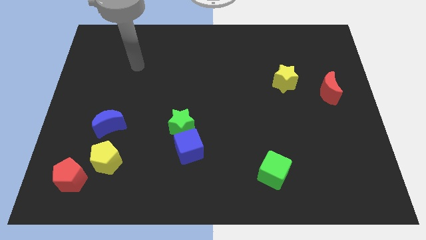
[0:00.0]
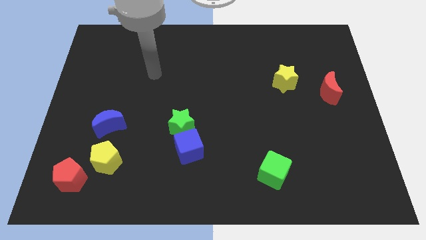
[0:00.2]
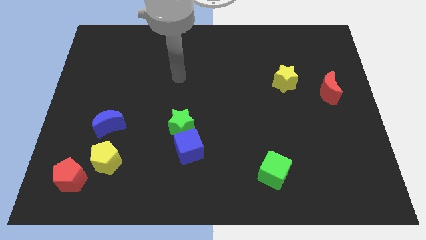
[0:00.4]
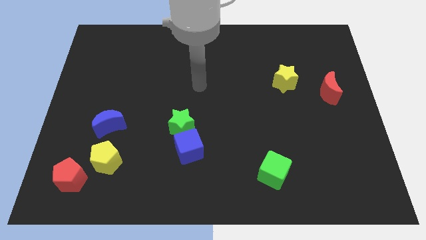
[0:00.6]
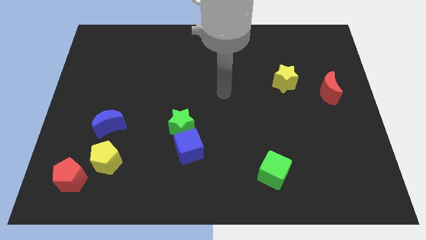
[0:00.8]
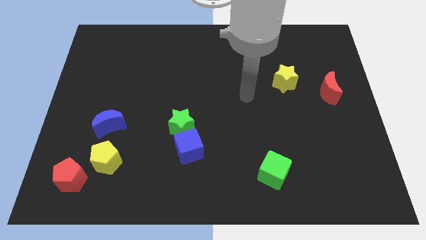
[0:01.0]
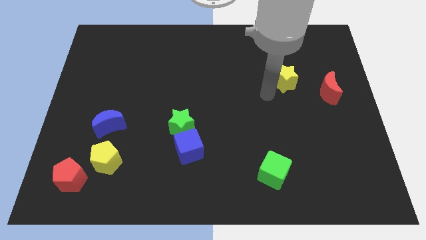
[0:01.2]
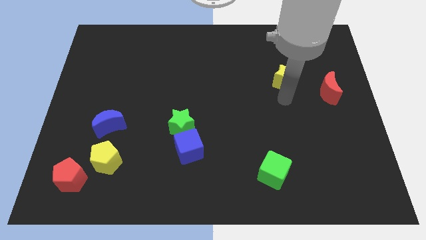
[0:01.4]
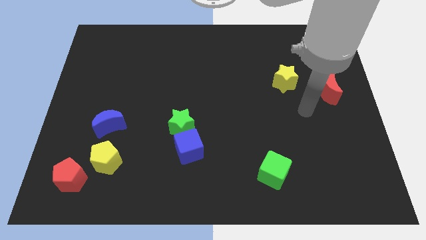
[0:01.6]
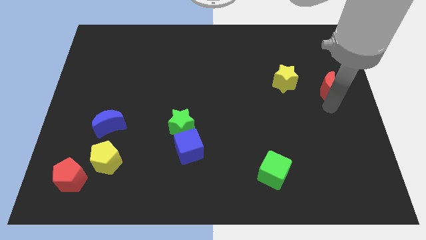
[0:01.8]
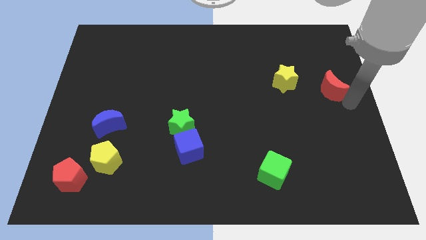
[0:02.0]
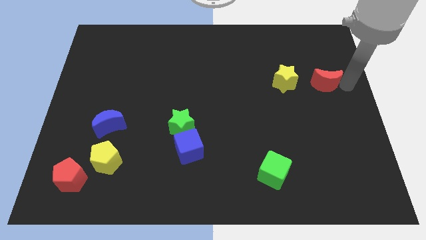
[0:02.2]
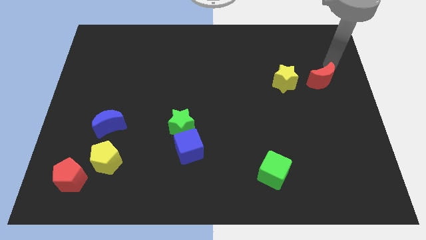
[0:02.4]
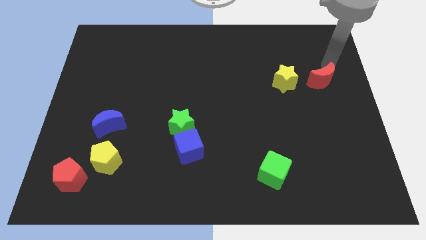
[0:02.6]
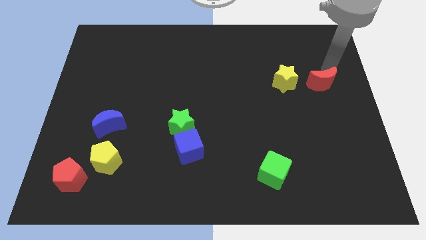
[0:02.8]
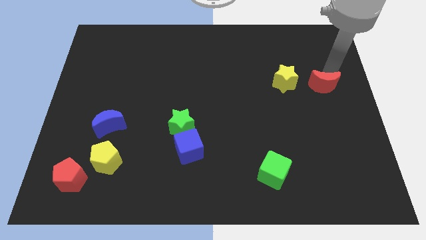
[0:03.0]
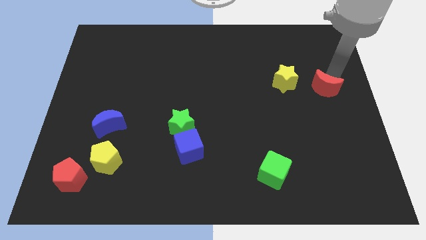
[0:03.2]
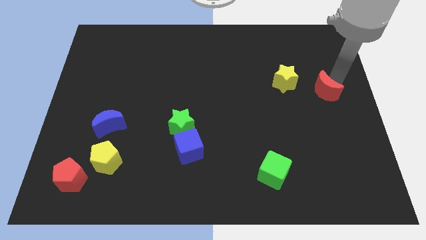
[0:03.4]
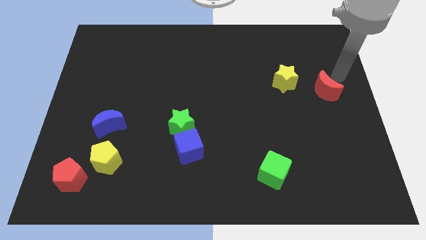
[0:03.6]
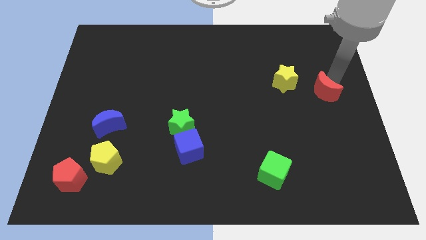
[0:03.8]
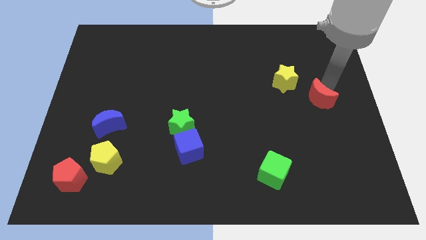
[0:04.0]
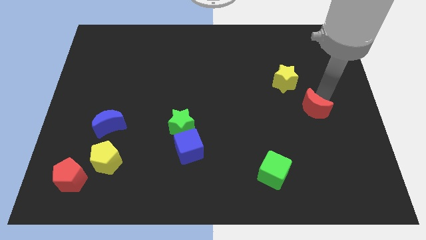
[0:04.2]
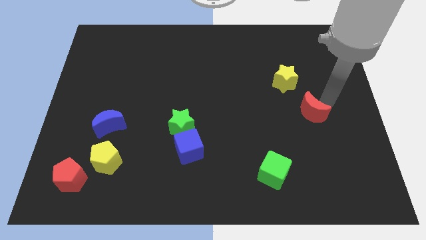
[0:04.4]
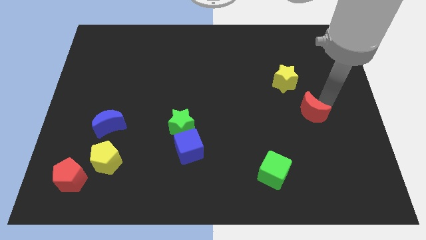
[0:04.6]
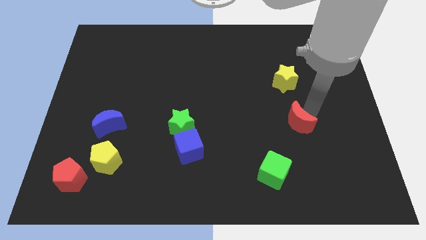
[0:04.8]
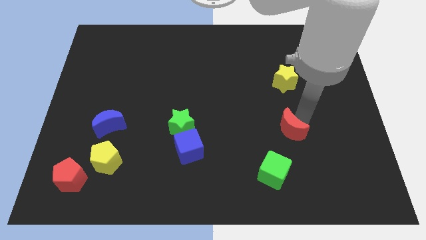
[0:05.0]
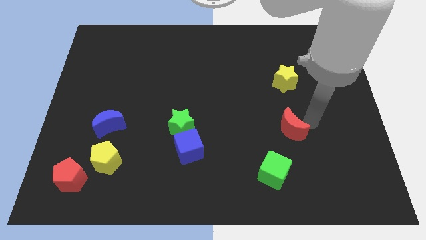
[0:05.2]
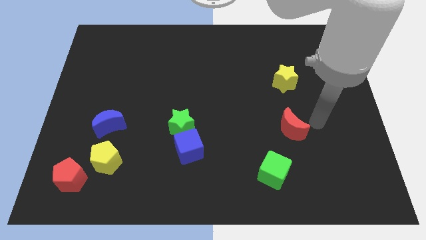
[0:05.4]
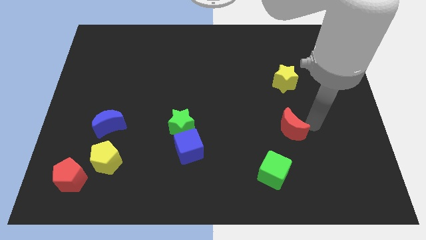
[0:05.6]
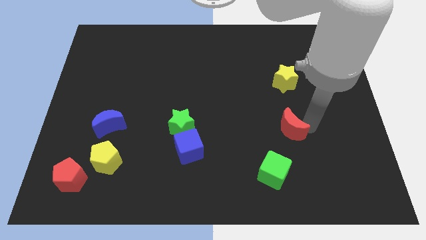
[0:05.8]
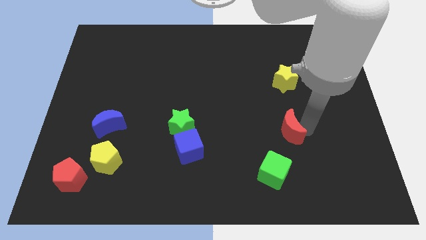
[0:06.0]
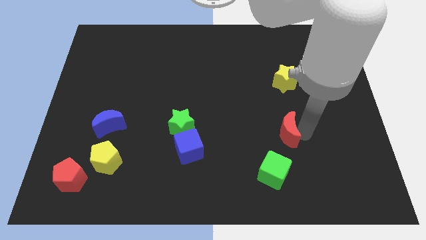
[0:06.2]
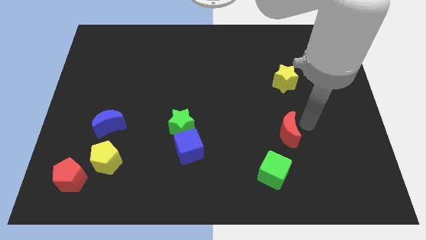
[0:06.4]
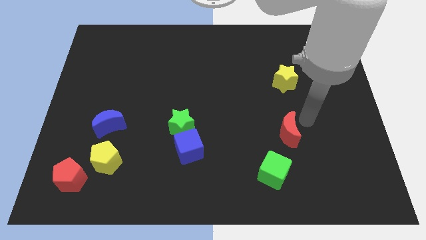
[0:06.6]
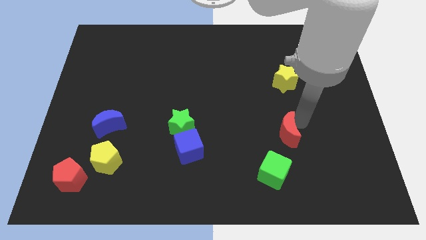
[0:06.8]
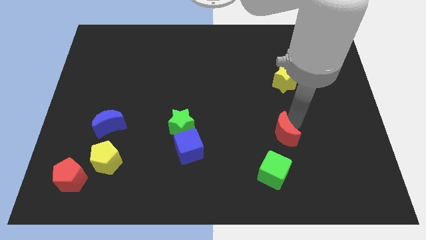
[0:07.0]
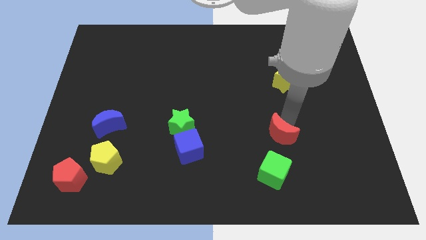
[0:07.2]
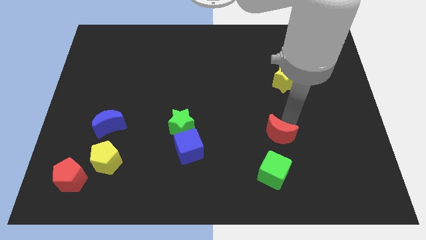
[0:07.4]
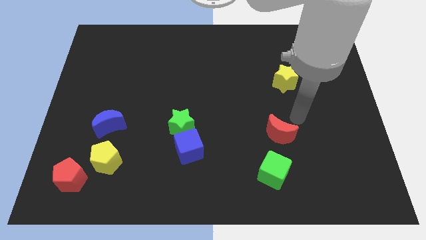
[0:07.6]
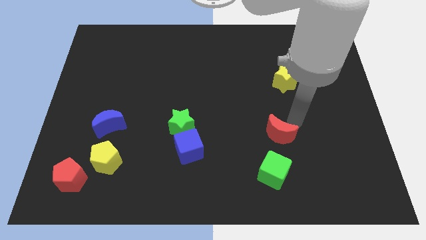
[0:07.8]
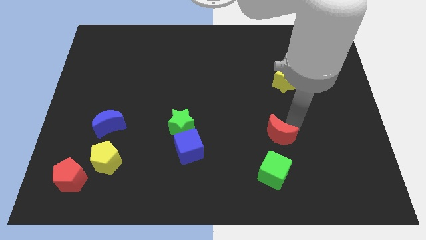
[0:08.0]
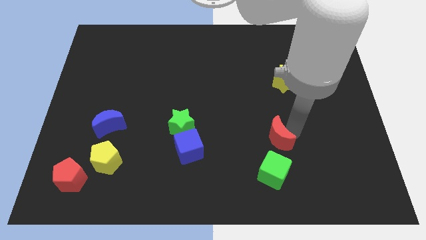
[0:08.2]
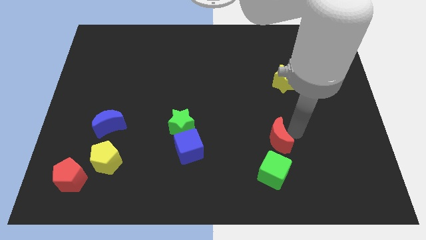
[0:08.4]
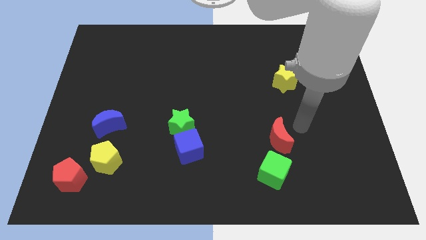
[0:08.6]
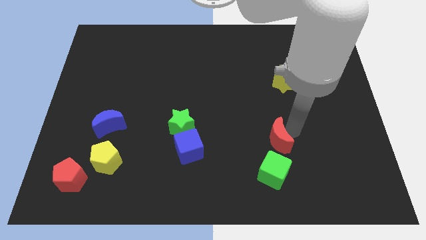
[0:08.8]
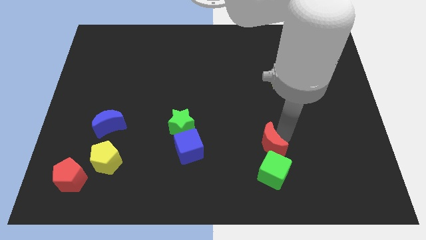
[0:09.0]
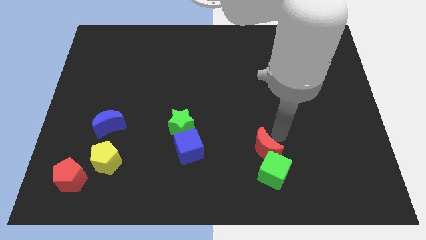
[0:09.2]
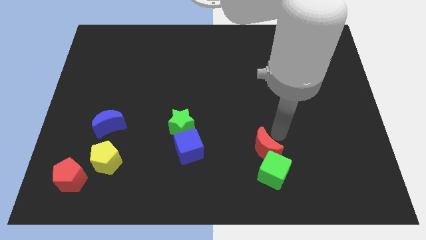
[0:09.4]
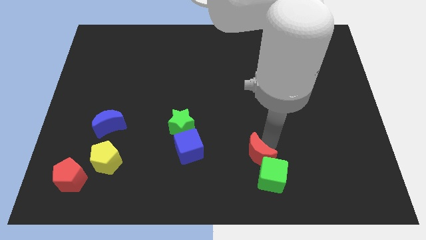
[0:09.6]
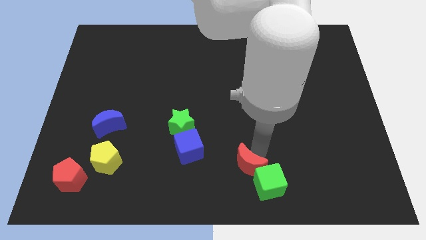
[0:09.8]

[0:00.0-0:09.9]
slide the red moon to the bottom

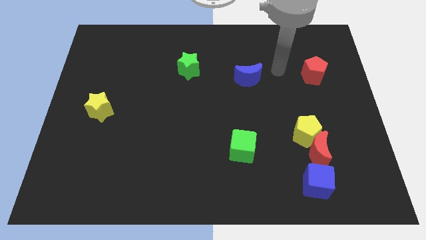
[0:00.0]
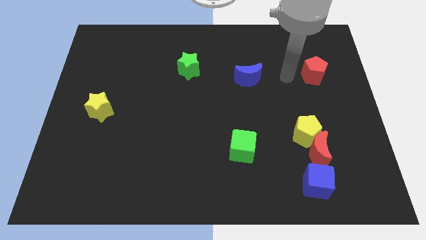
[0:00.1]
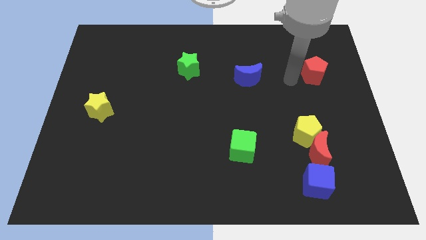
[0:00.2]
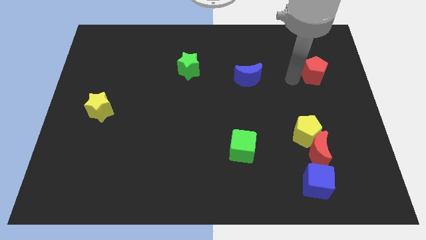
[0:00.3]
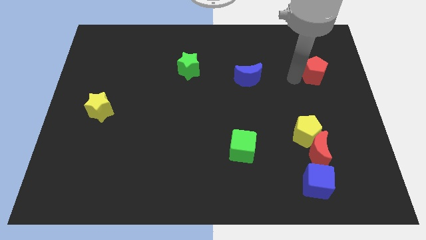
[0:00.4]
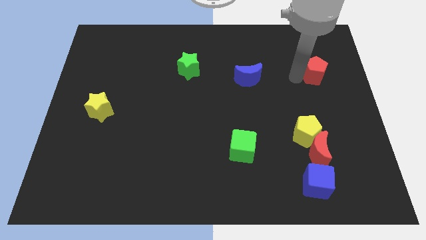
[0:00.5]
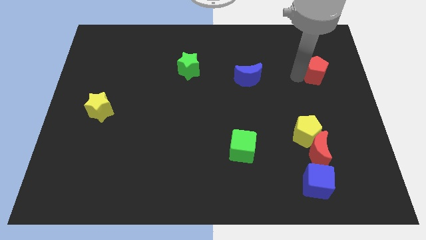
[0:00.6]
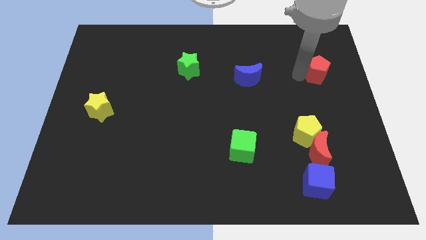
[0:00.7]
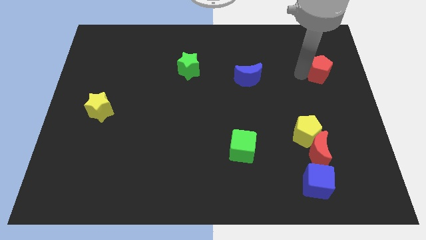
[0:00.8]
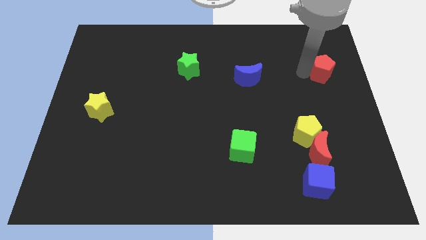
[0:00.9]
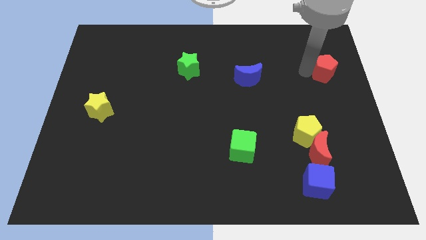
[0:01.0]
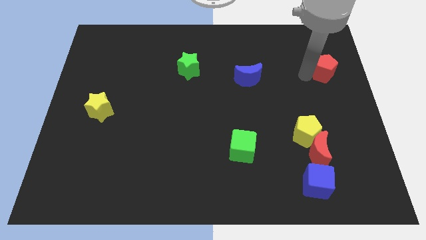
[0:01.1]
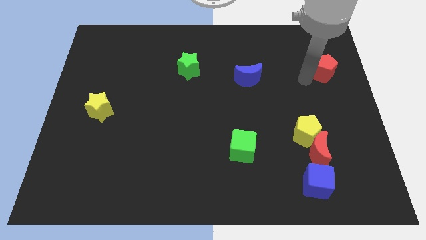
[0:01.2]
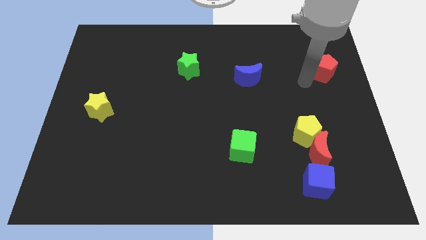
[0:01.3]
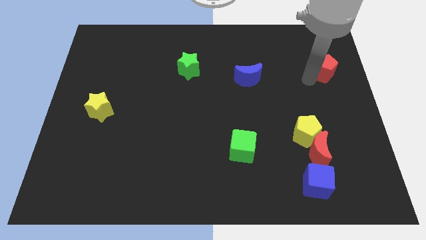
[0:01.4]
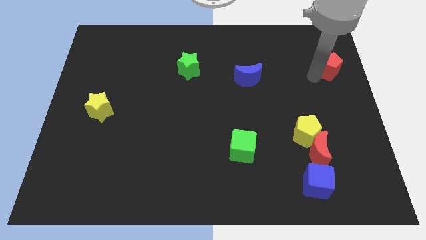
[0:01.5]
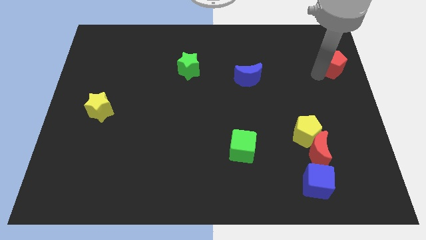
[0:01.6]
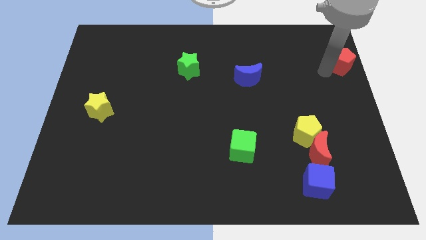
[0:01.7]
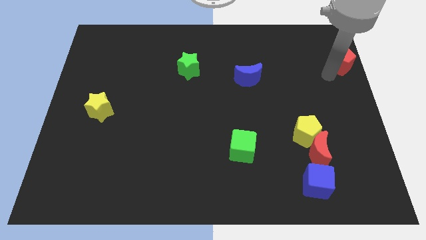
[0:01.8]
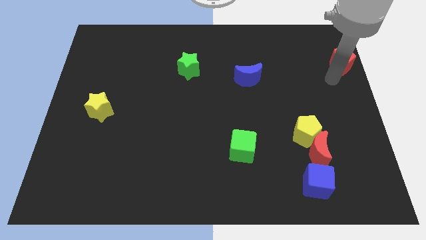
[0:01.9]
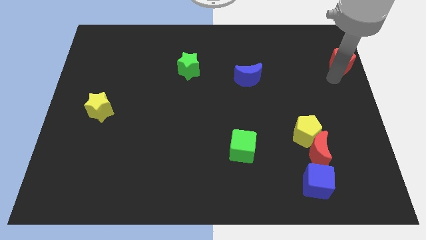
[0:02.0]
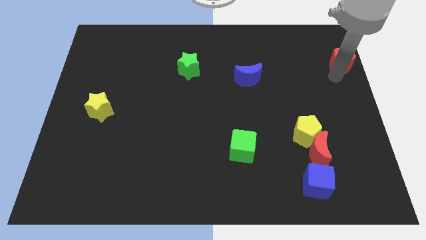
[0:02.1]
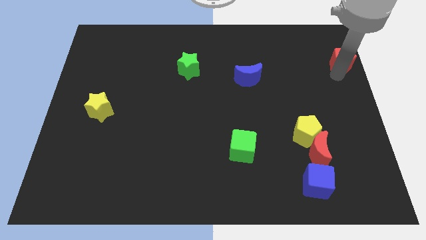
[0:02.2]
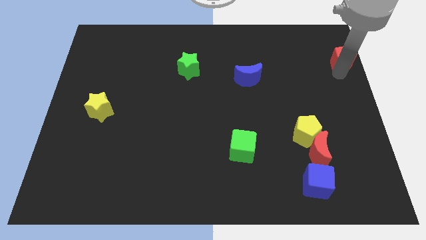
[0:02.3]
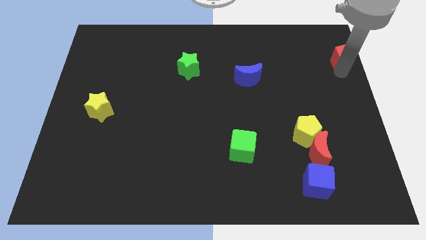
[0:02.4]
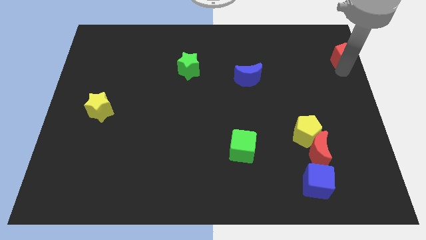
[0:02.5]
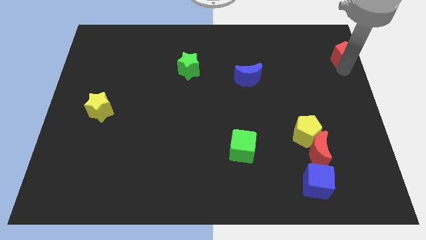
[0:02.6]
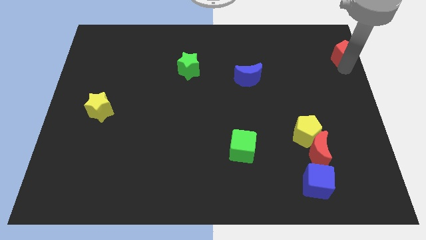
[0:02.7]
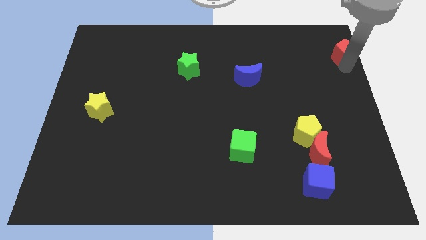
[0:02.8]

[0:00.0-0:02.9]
put the red pentagon to the top right of the board
